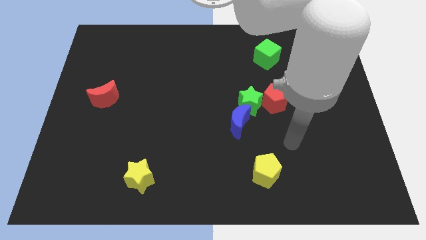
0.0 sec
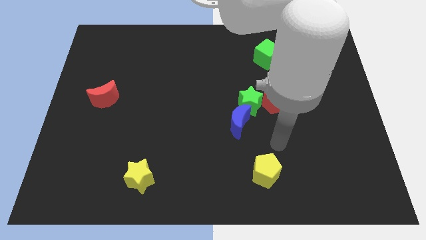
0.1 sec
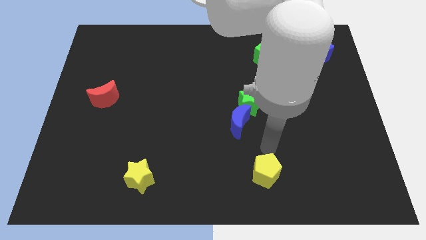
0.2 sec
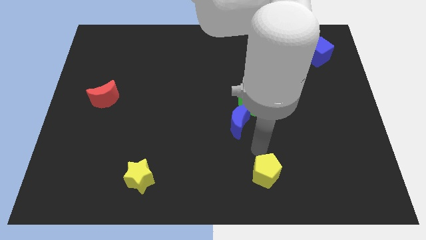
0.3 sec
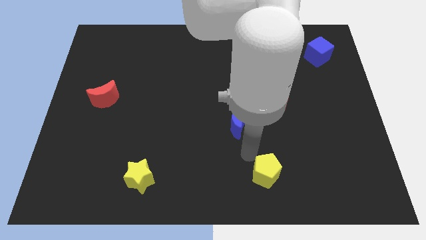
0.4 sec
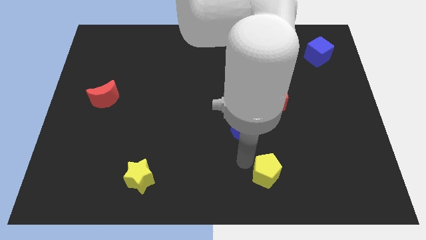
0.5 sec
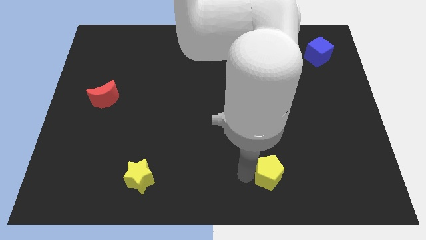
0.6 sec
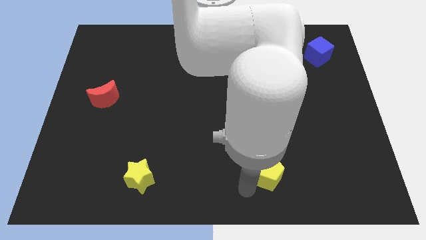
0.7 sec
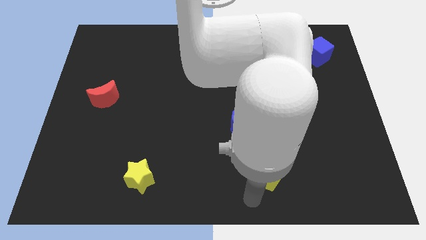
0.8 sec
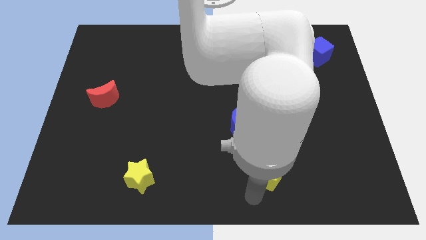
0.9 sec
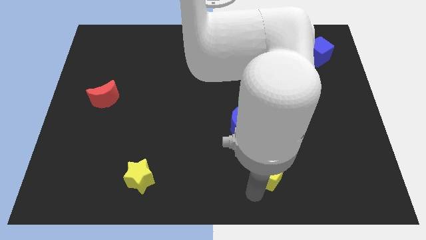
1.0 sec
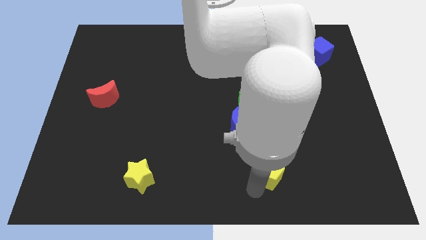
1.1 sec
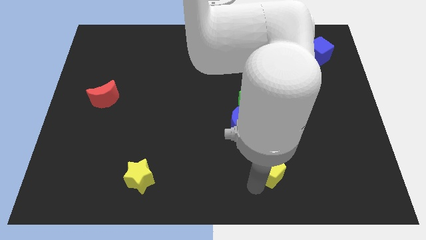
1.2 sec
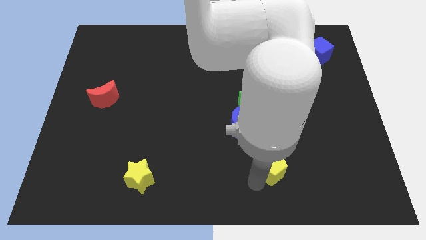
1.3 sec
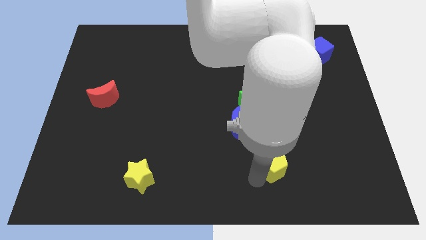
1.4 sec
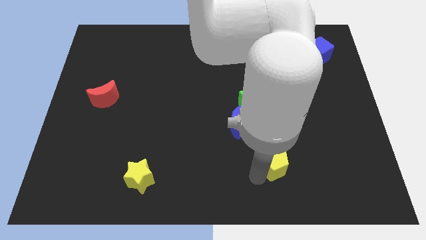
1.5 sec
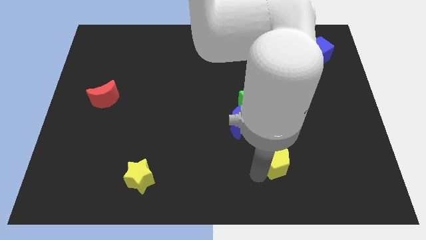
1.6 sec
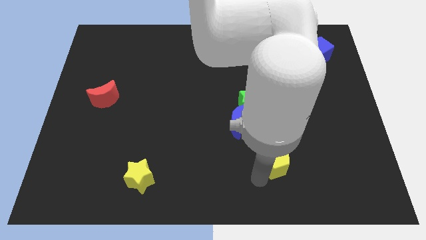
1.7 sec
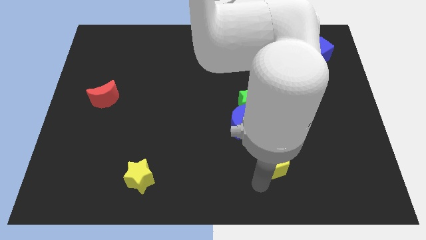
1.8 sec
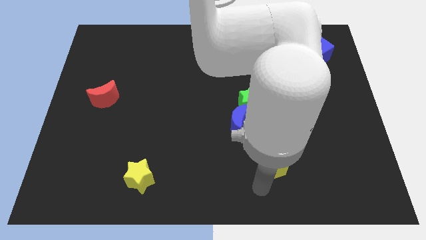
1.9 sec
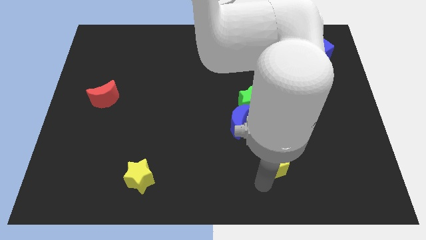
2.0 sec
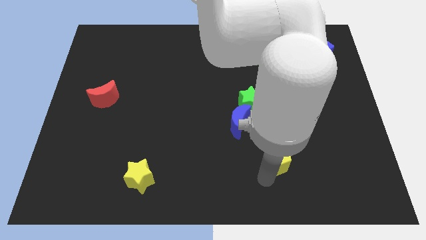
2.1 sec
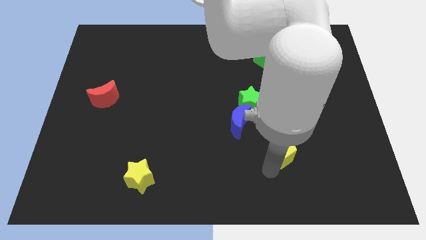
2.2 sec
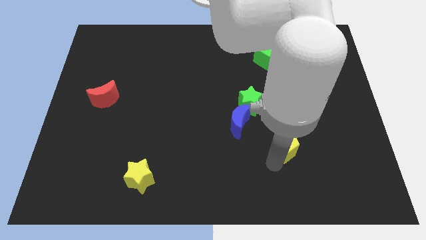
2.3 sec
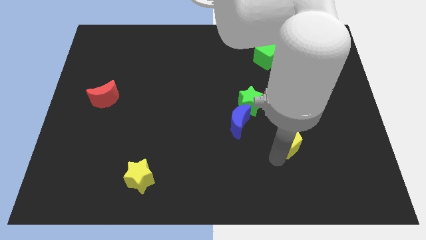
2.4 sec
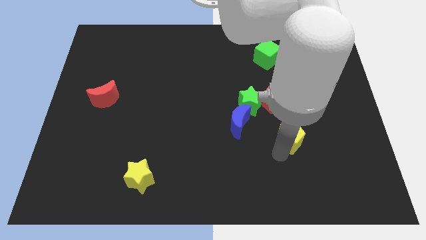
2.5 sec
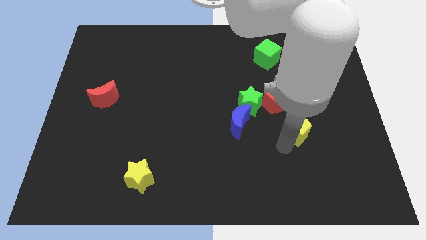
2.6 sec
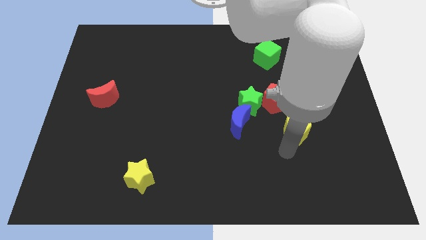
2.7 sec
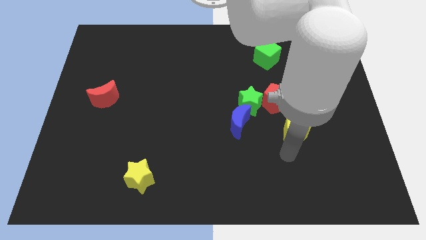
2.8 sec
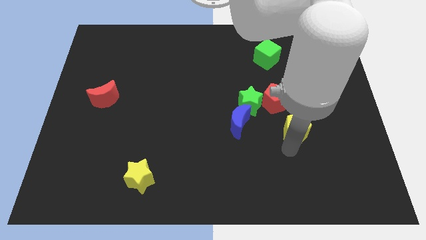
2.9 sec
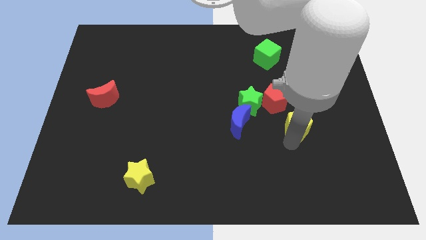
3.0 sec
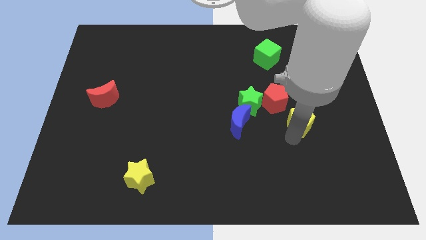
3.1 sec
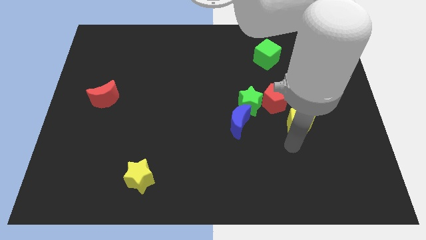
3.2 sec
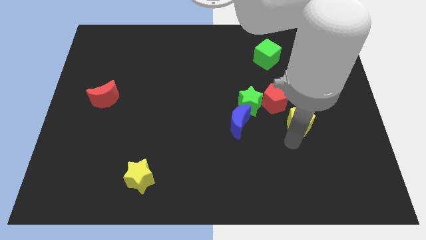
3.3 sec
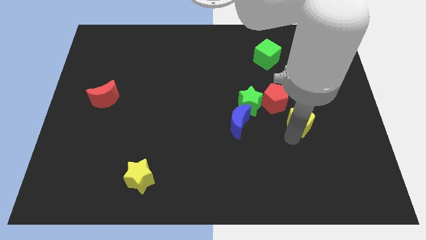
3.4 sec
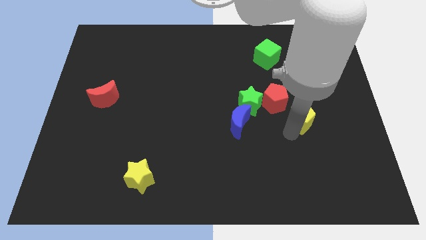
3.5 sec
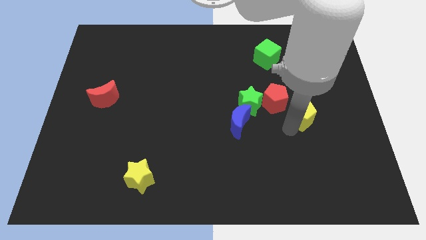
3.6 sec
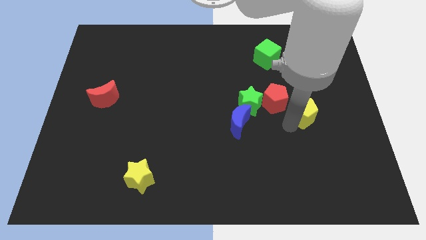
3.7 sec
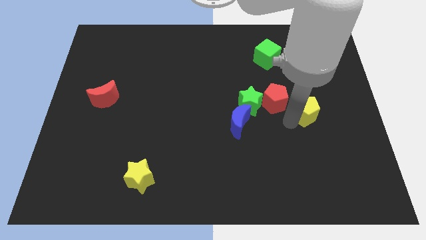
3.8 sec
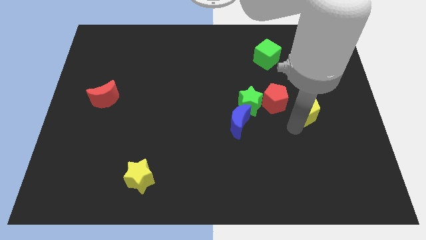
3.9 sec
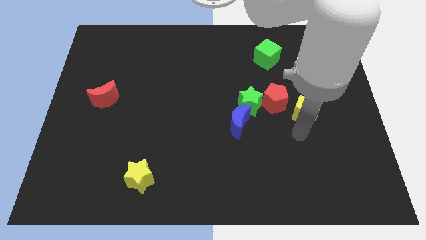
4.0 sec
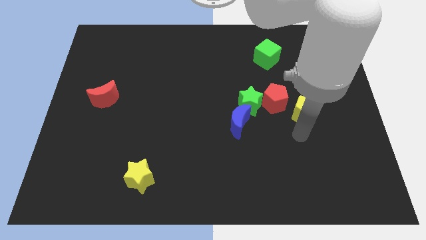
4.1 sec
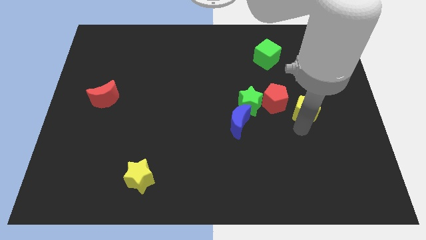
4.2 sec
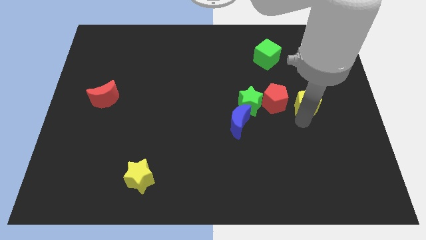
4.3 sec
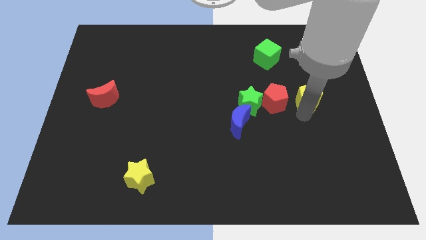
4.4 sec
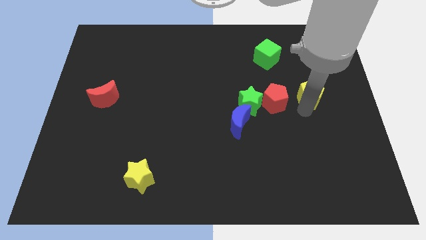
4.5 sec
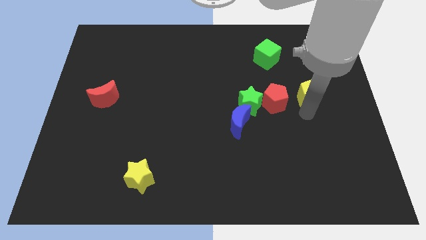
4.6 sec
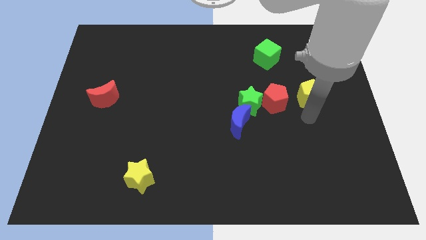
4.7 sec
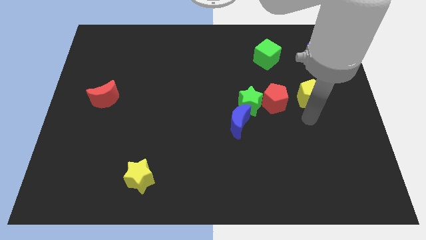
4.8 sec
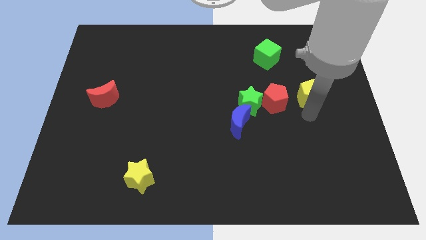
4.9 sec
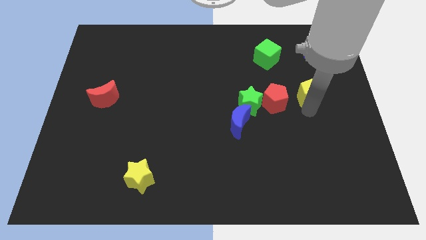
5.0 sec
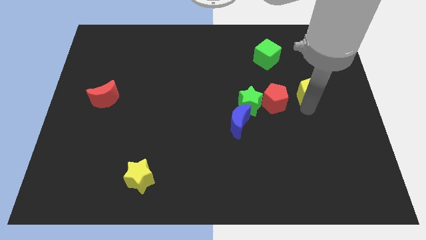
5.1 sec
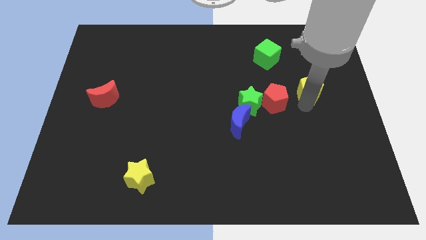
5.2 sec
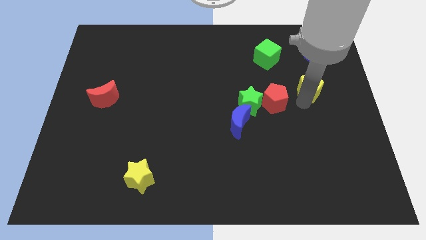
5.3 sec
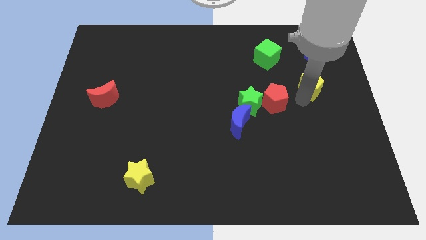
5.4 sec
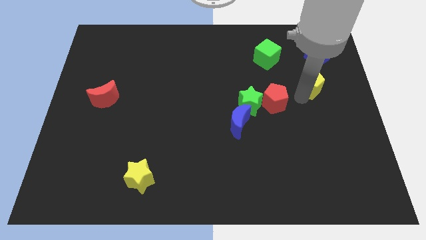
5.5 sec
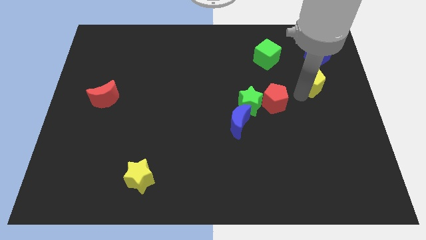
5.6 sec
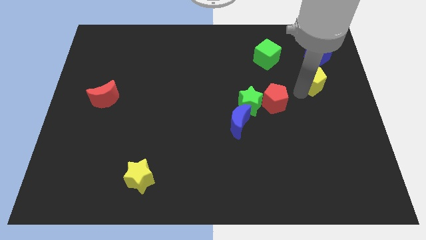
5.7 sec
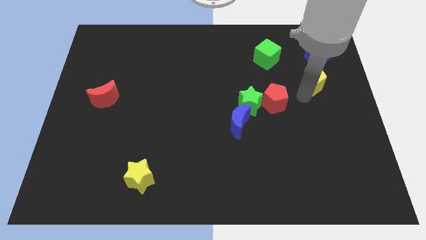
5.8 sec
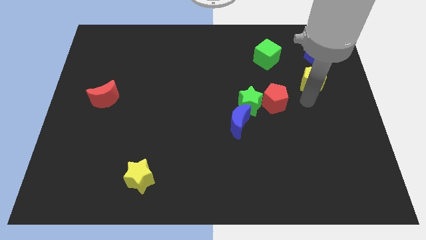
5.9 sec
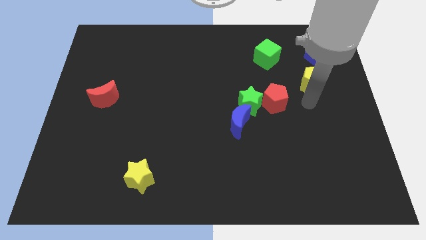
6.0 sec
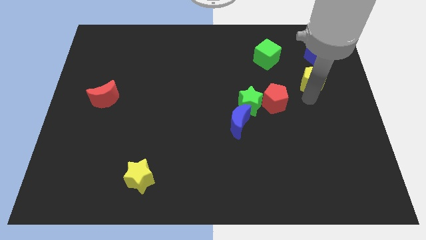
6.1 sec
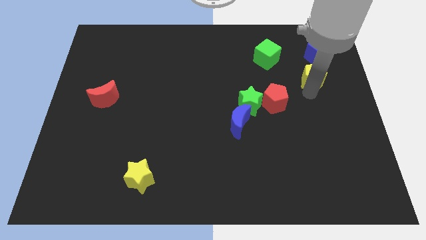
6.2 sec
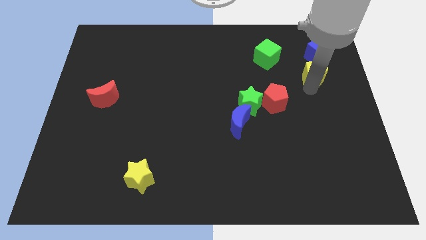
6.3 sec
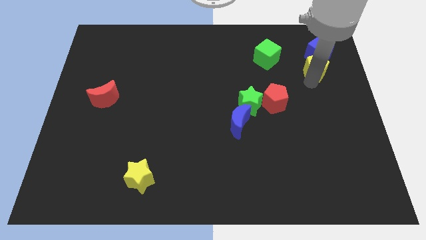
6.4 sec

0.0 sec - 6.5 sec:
put the yellow pentagon close to the blue cube

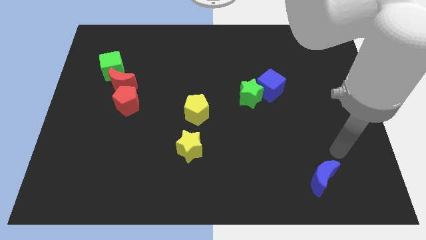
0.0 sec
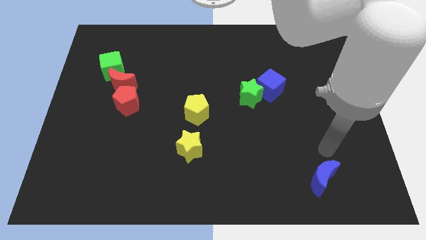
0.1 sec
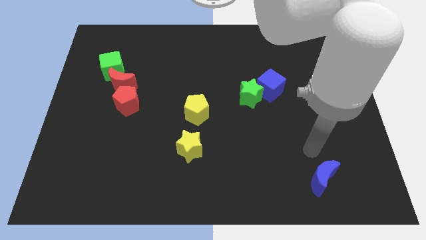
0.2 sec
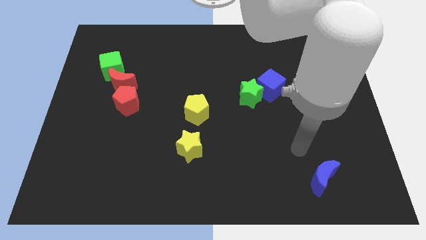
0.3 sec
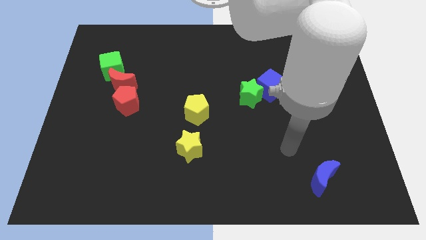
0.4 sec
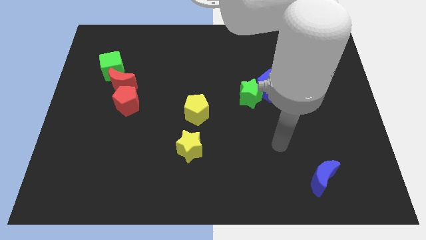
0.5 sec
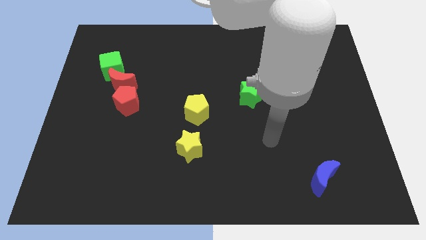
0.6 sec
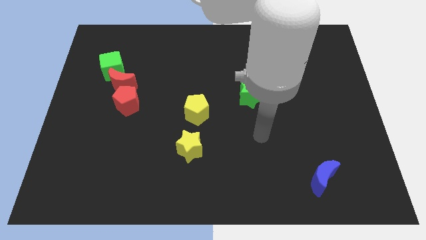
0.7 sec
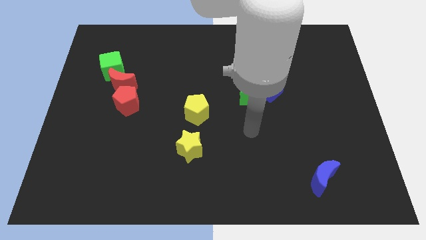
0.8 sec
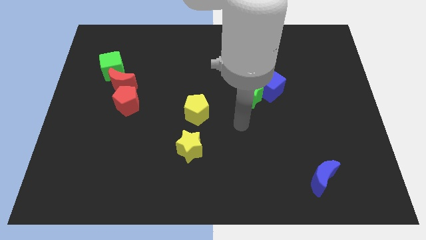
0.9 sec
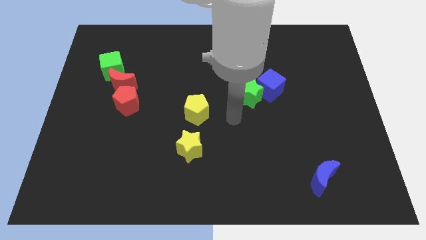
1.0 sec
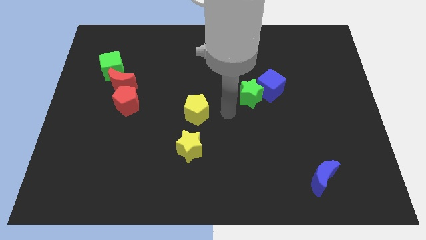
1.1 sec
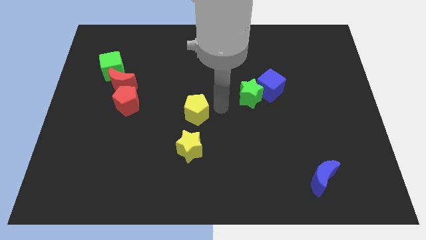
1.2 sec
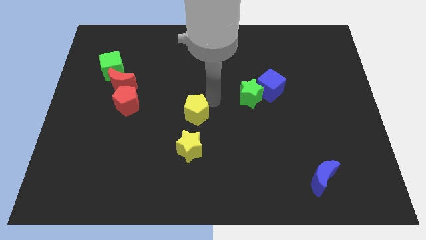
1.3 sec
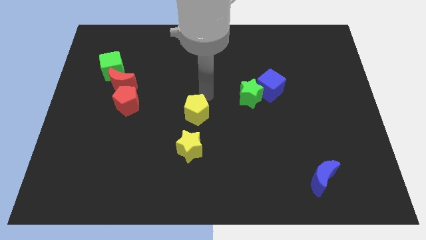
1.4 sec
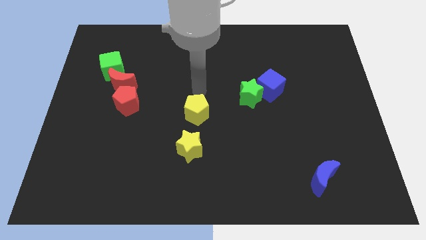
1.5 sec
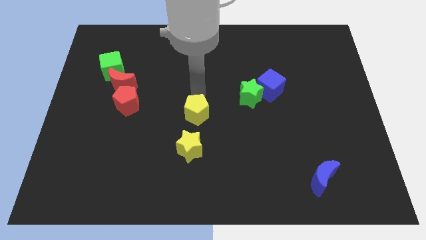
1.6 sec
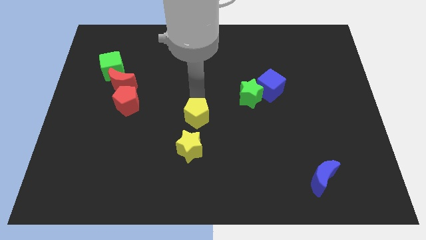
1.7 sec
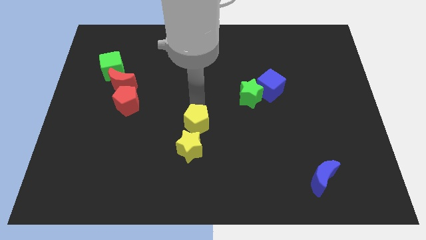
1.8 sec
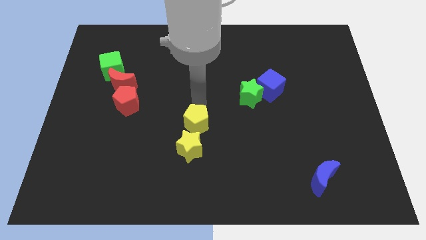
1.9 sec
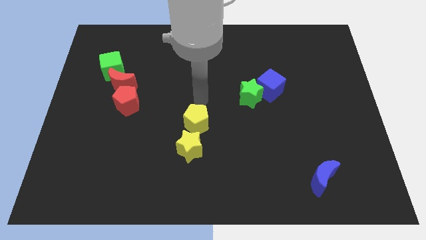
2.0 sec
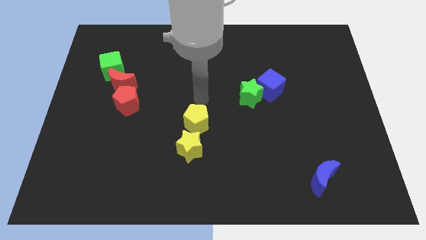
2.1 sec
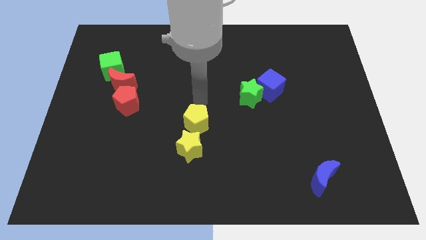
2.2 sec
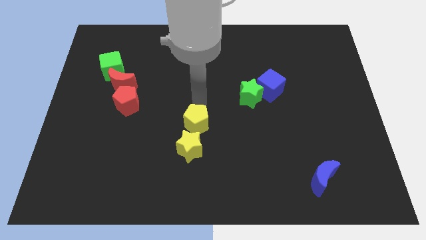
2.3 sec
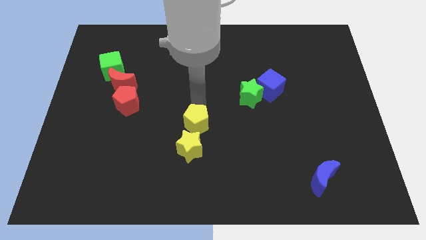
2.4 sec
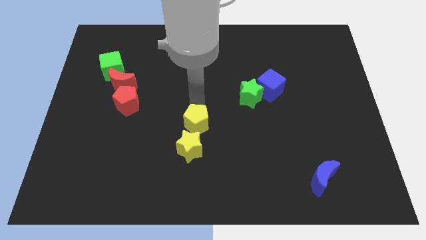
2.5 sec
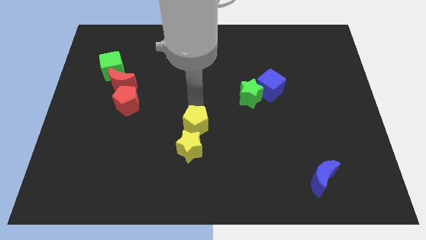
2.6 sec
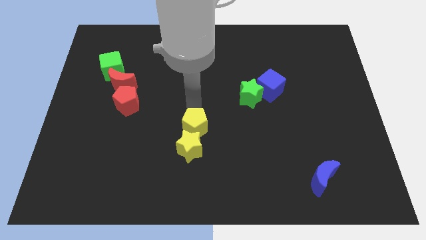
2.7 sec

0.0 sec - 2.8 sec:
push the yellow pentagon towards the yellow star
